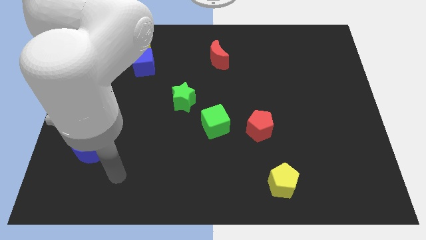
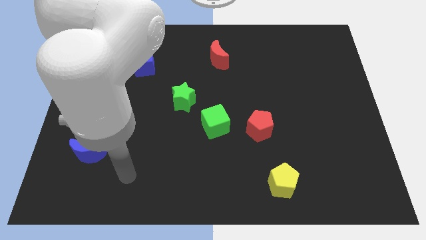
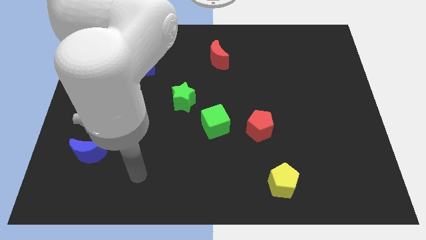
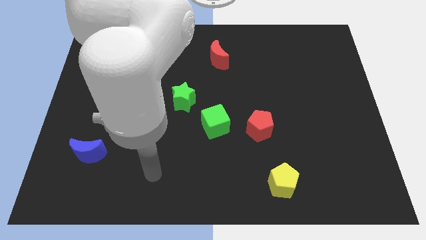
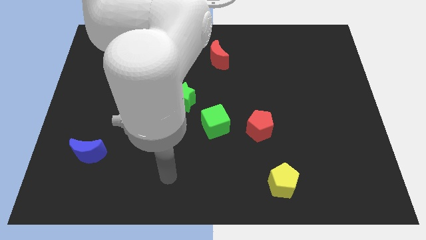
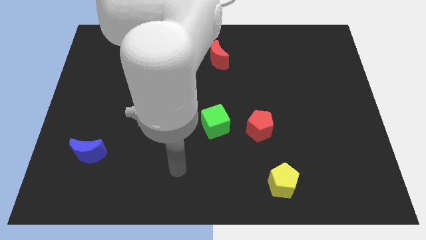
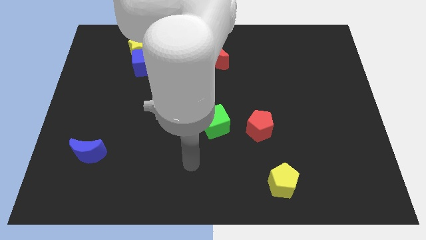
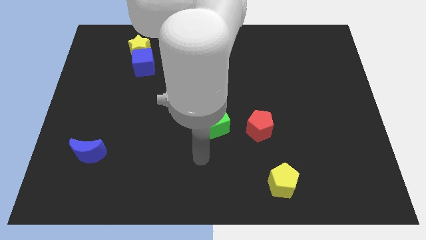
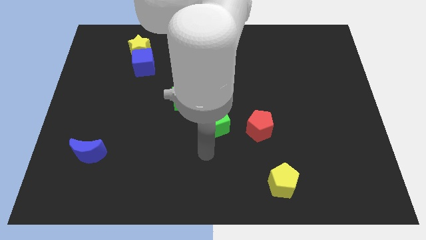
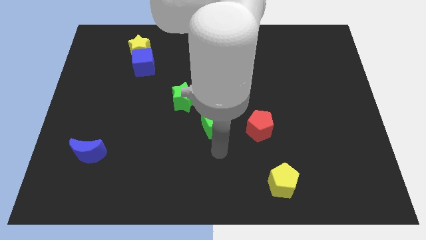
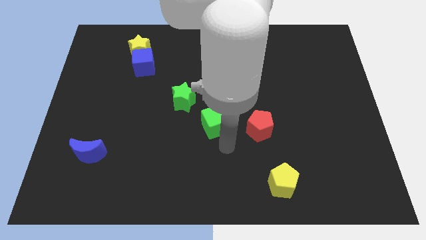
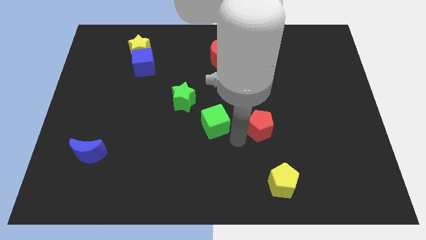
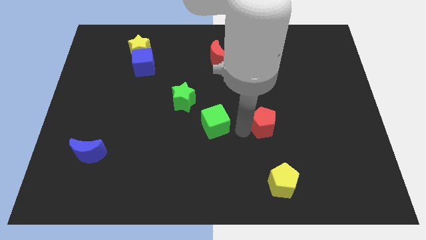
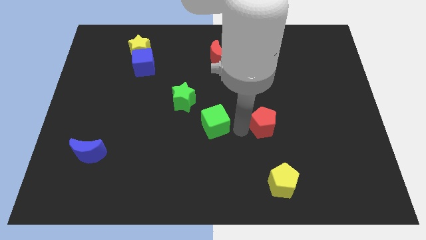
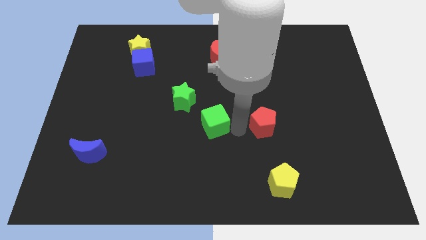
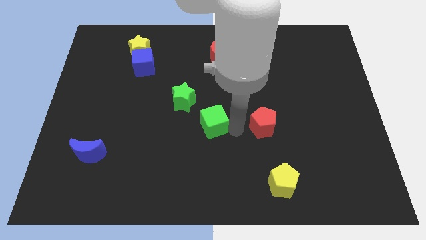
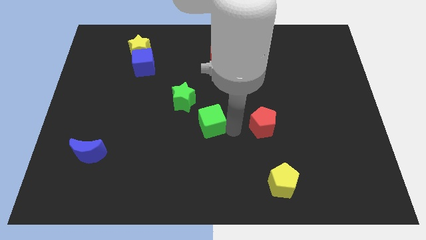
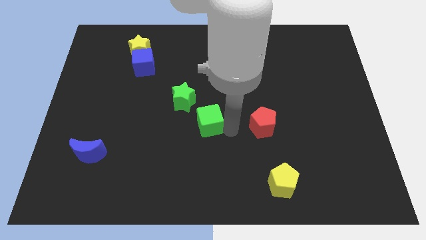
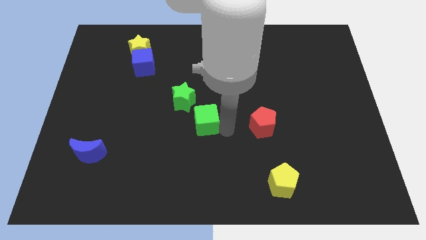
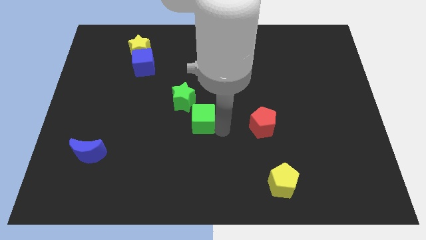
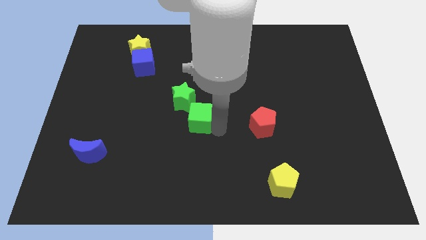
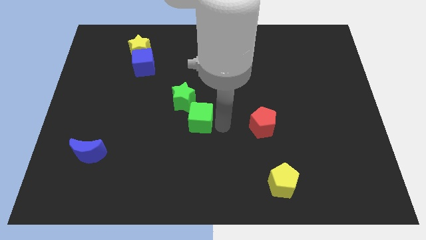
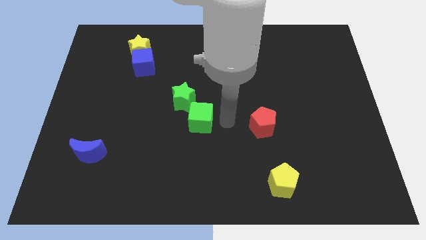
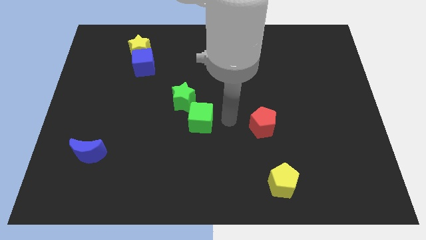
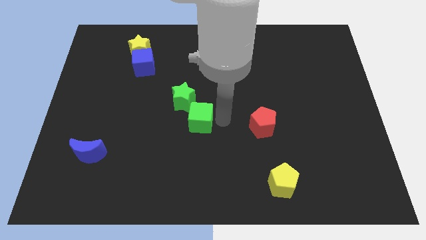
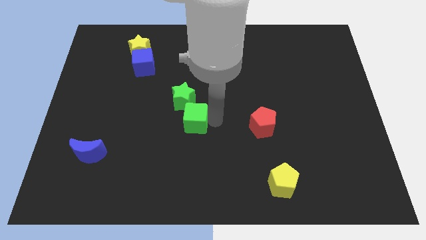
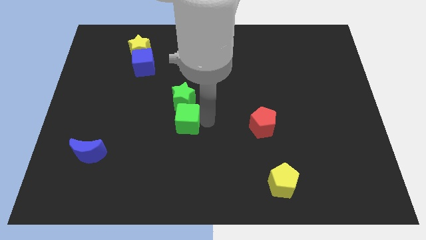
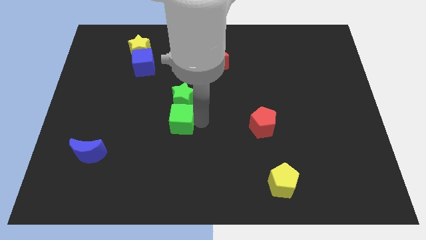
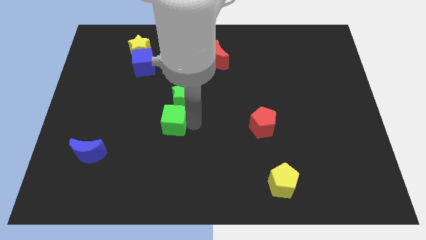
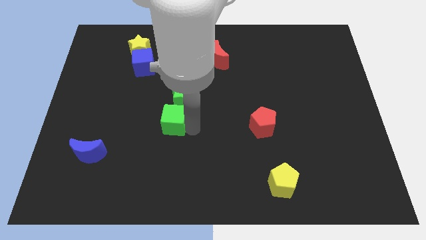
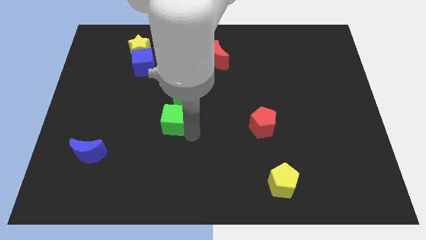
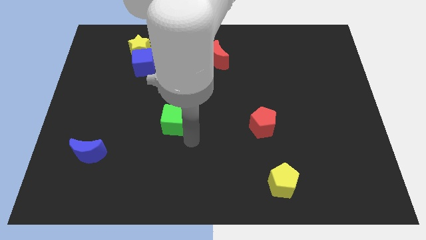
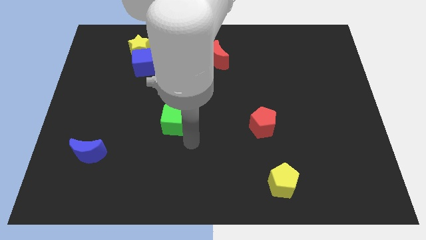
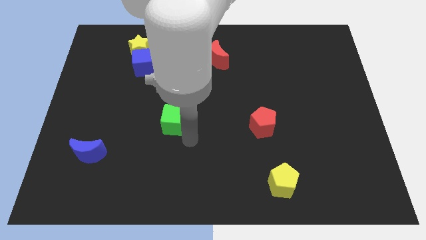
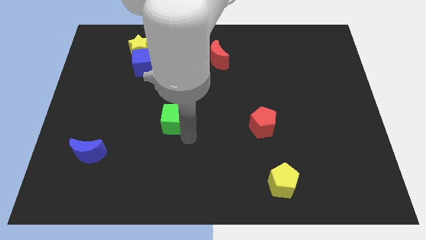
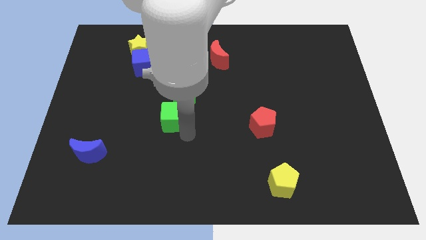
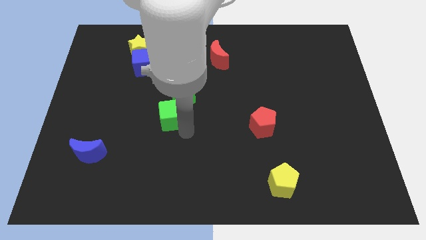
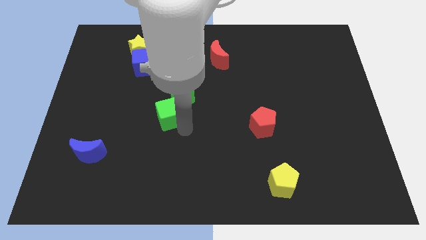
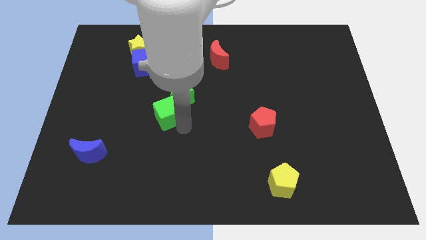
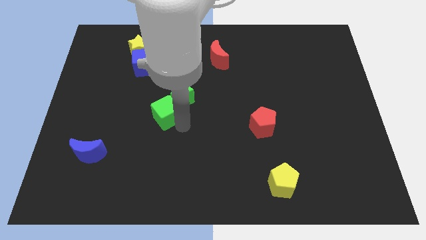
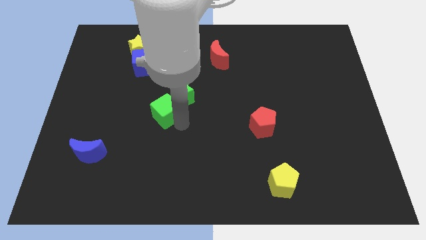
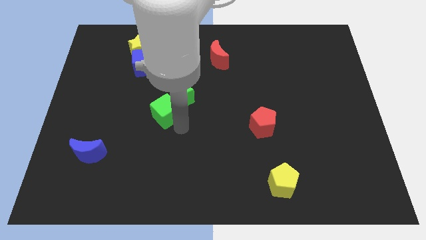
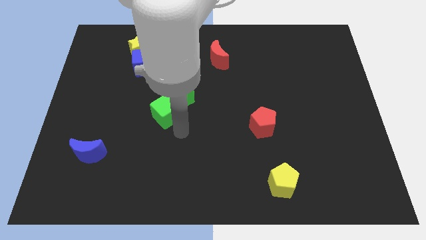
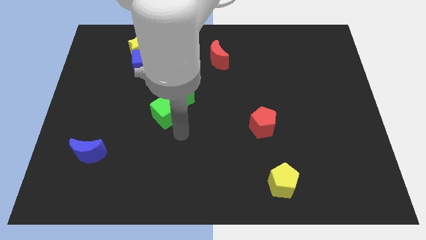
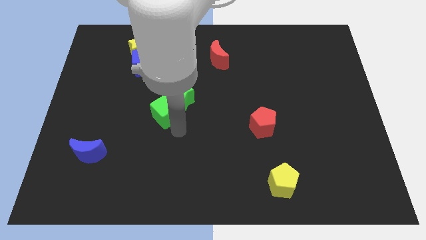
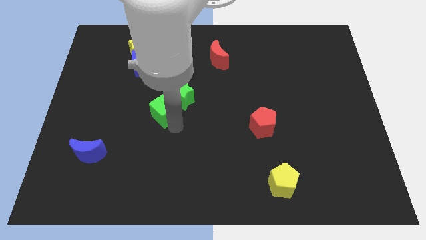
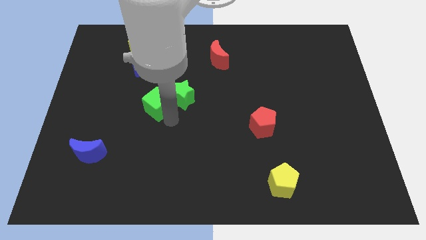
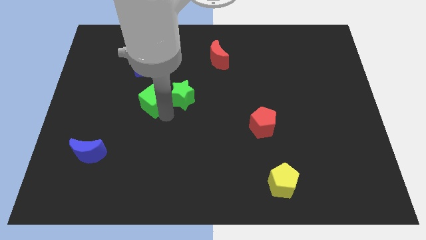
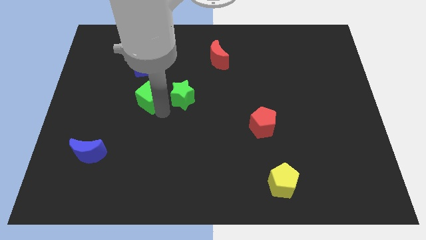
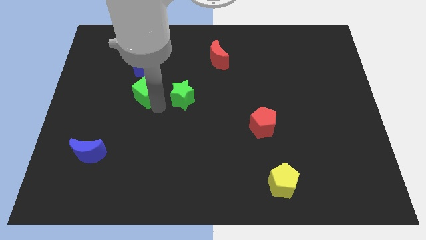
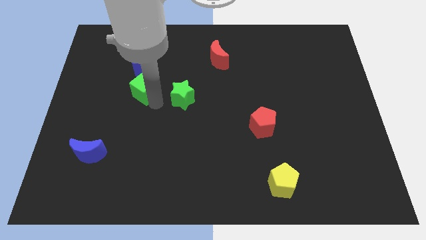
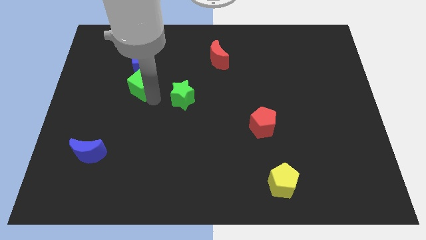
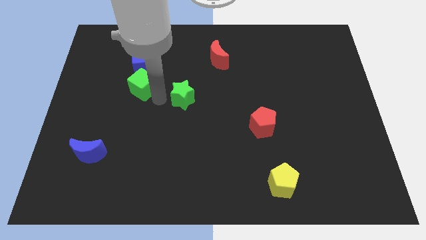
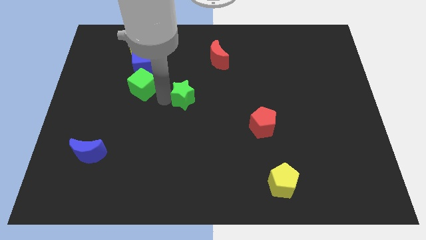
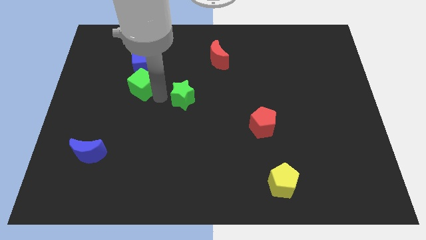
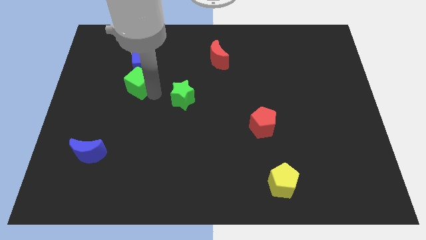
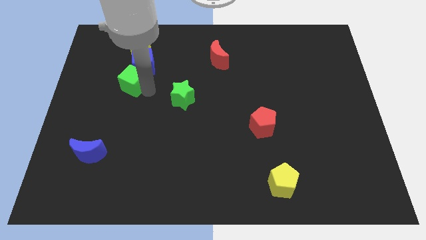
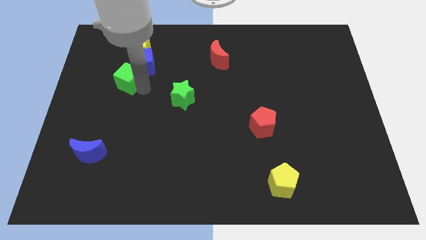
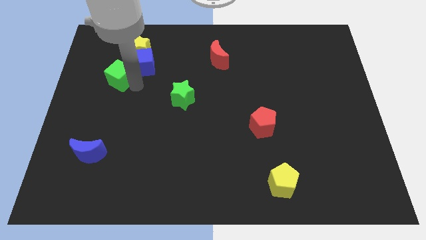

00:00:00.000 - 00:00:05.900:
push the green cube to the left side of the blue cube

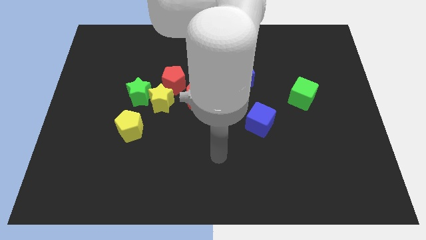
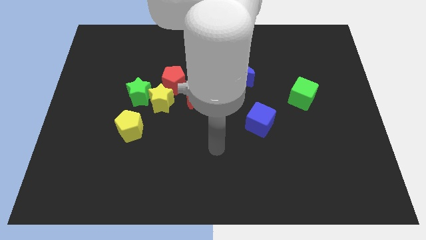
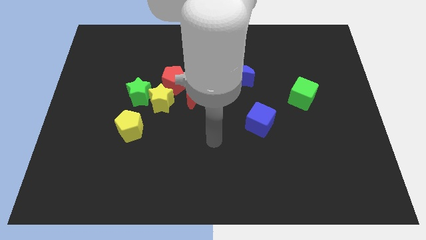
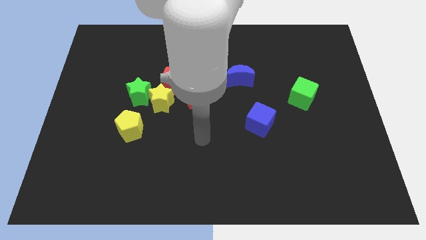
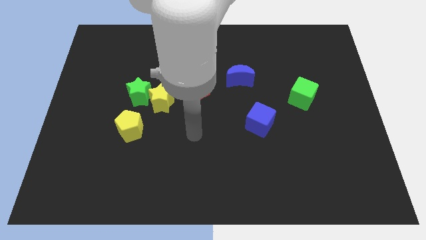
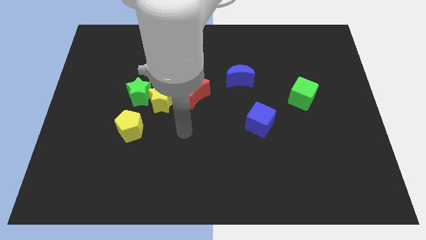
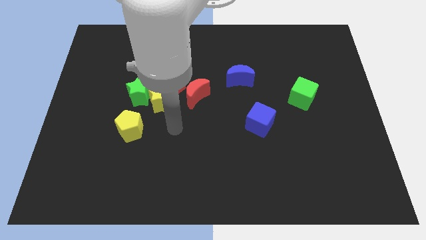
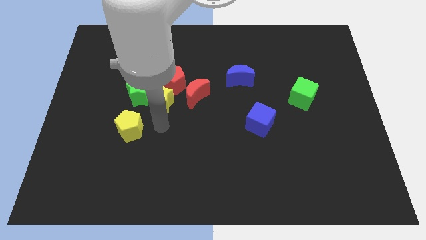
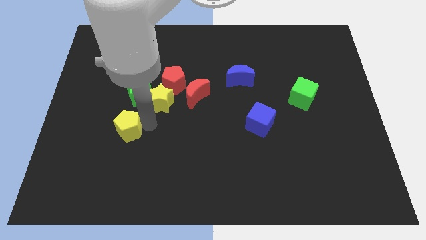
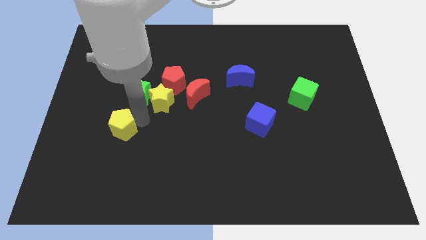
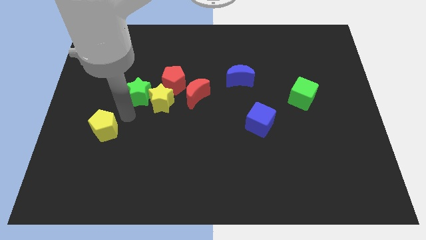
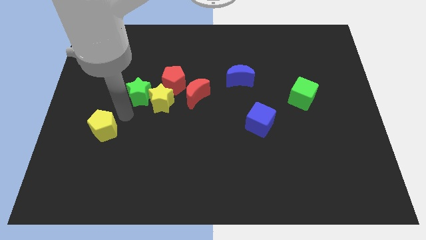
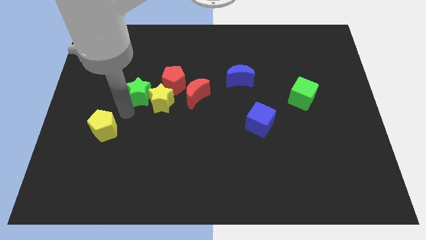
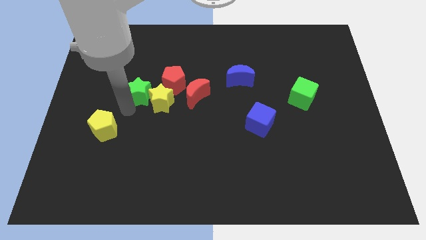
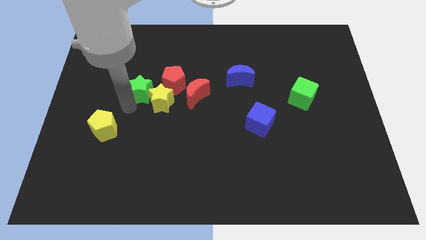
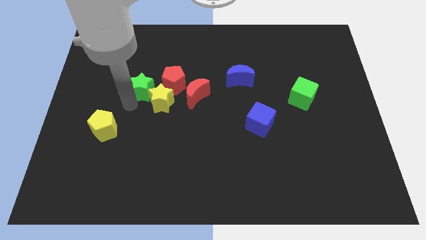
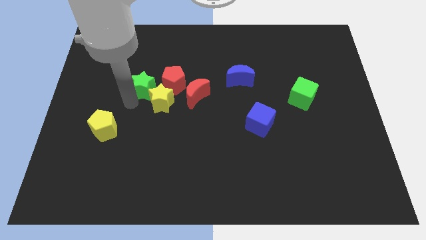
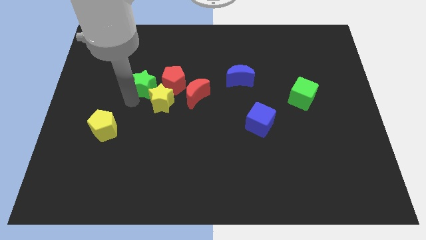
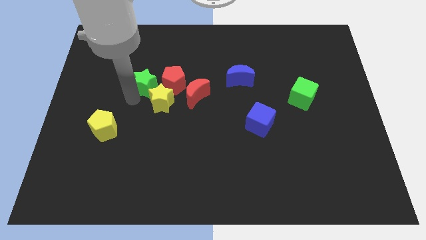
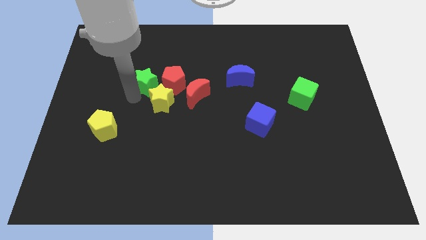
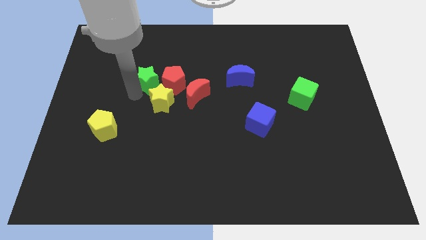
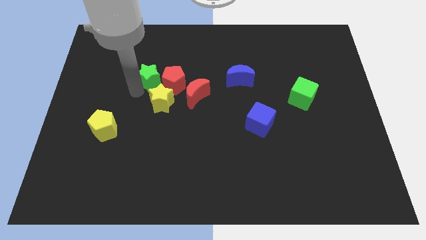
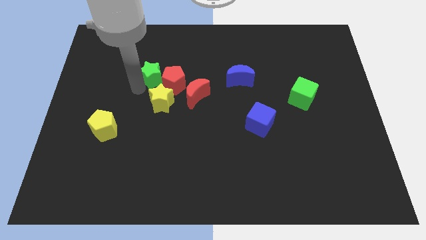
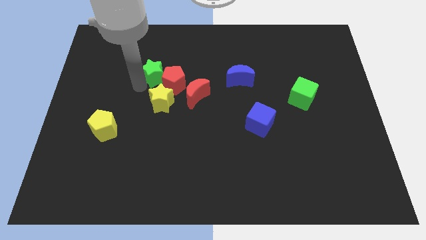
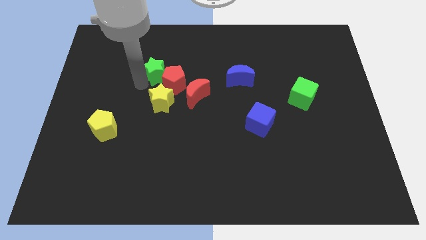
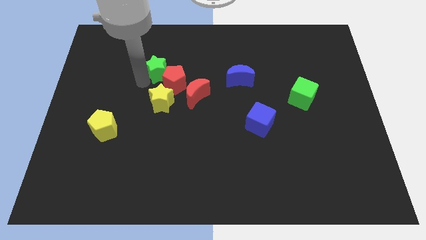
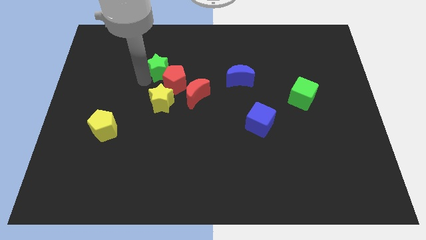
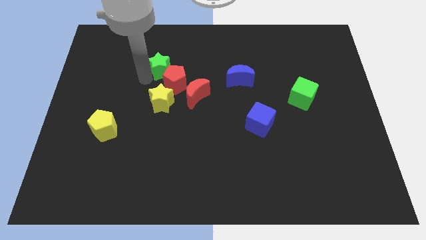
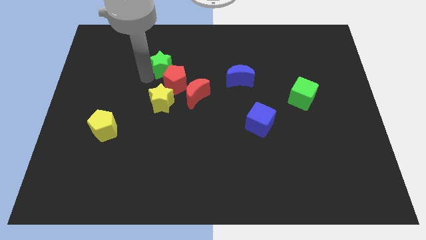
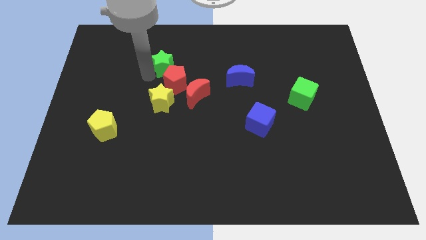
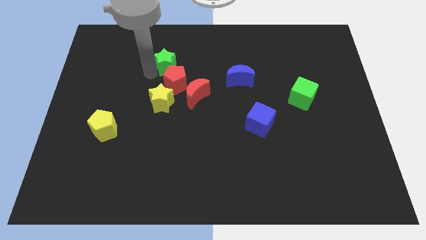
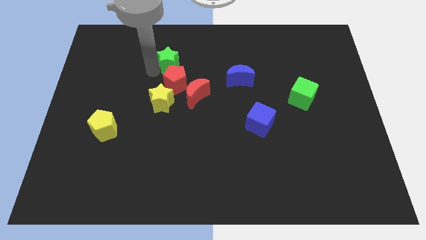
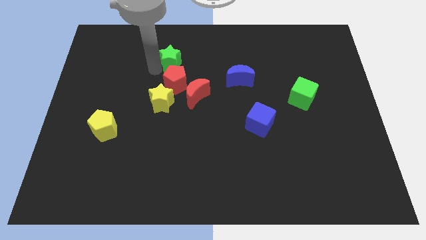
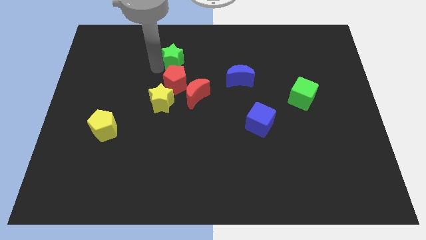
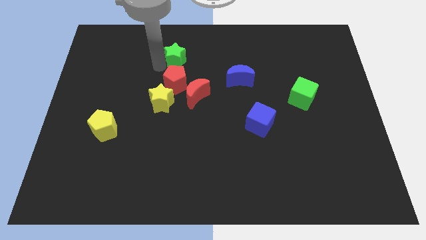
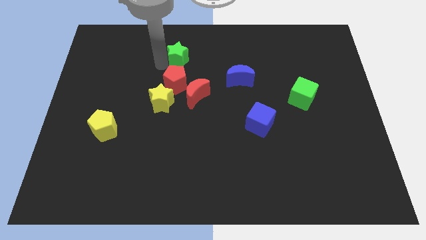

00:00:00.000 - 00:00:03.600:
move the green star to the top of the red moon
